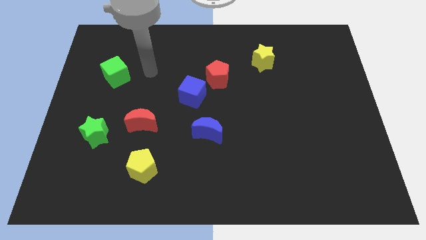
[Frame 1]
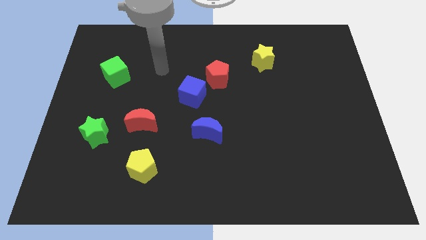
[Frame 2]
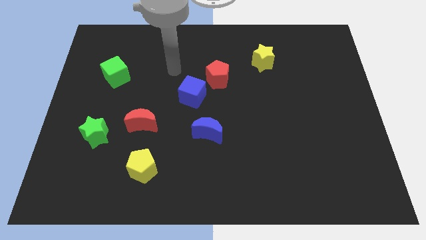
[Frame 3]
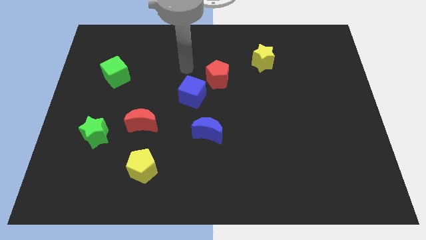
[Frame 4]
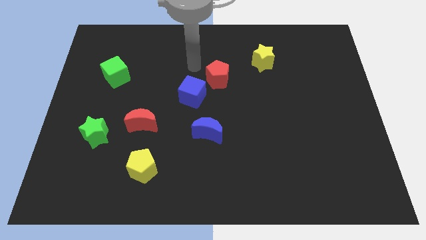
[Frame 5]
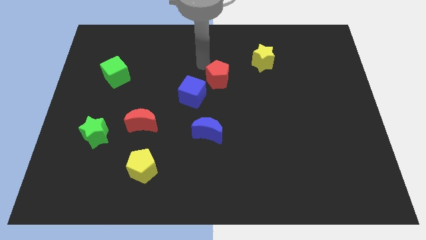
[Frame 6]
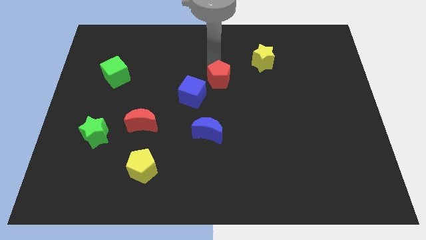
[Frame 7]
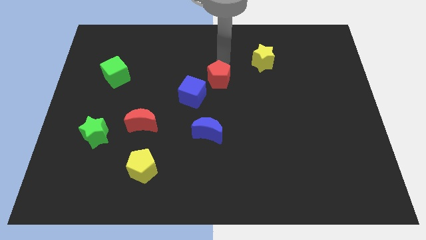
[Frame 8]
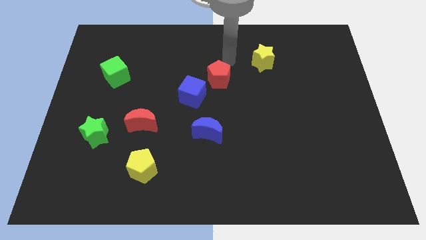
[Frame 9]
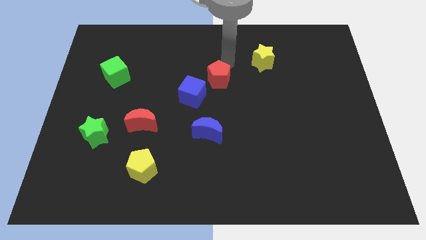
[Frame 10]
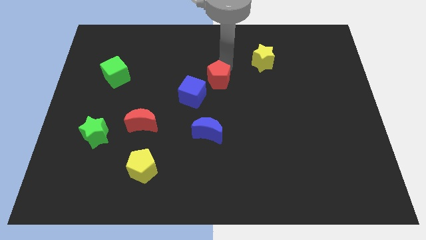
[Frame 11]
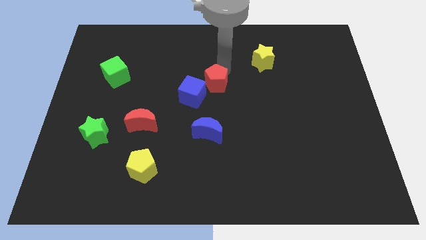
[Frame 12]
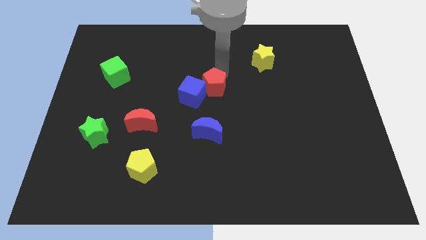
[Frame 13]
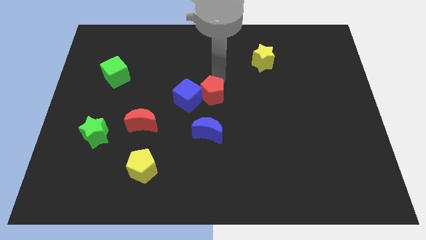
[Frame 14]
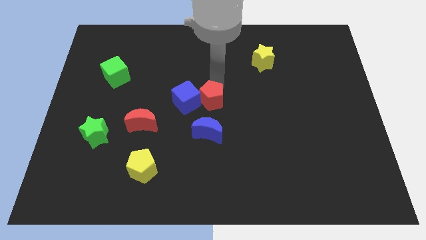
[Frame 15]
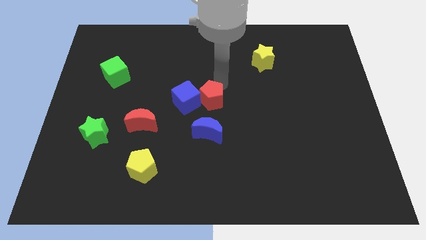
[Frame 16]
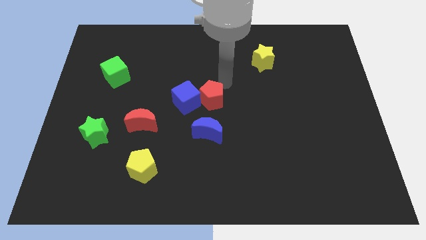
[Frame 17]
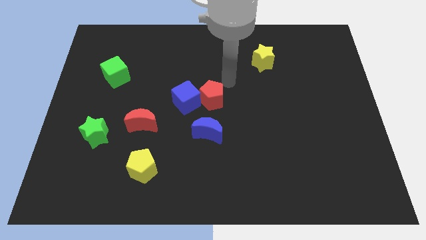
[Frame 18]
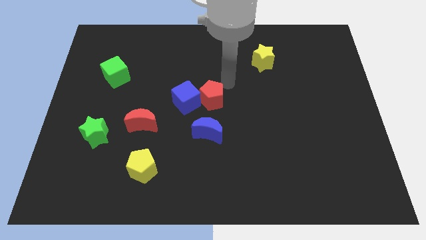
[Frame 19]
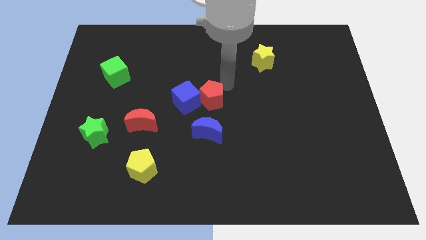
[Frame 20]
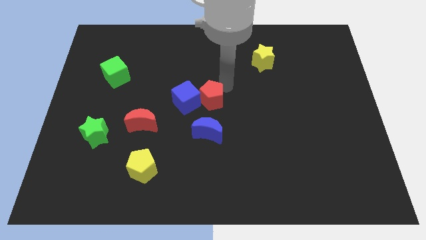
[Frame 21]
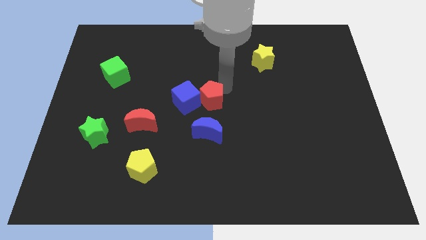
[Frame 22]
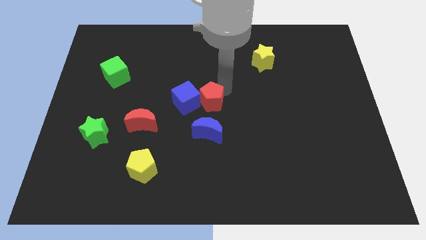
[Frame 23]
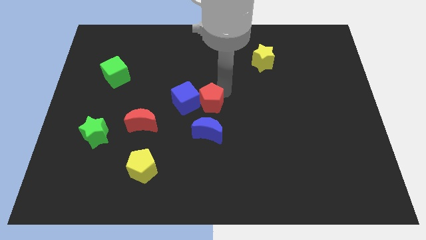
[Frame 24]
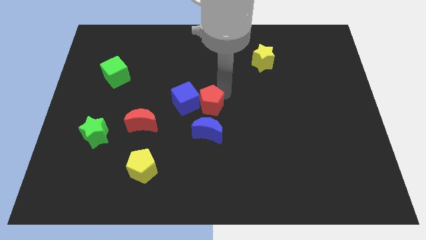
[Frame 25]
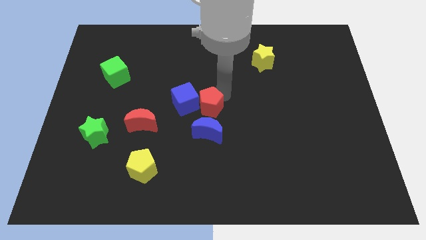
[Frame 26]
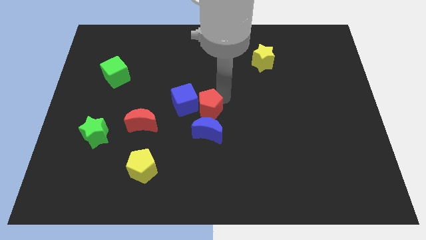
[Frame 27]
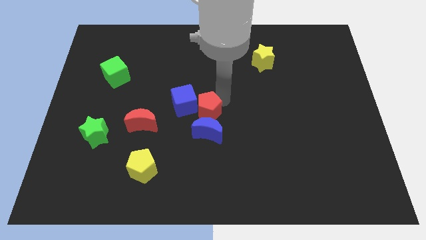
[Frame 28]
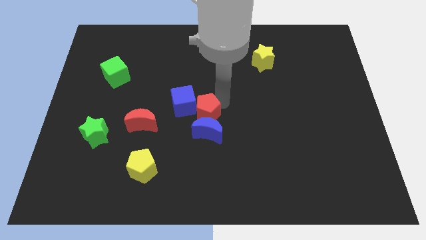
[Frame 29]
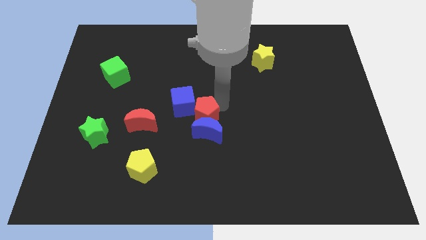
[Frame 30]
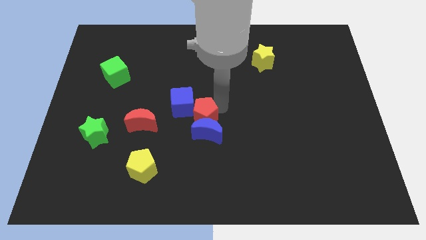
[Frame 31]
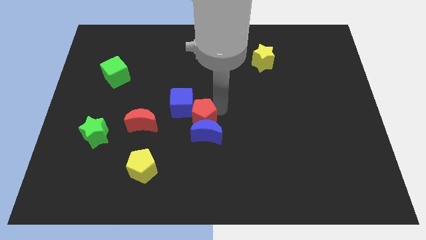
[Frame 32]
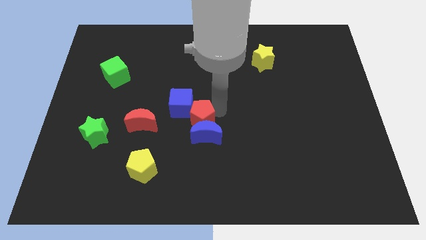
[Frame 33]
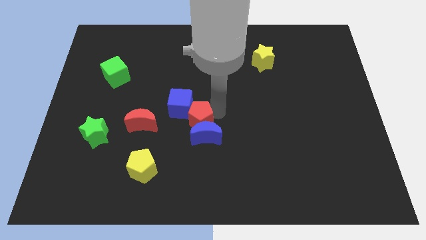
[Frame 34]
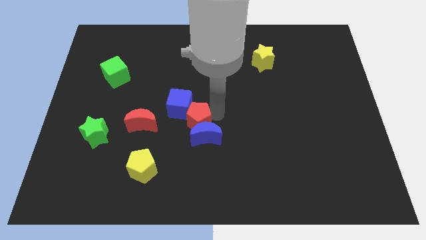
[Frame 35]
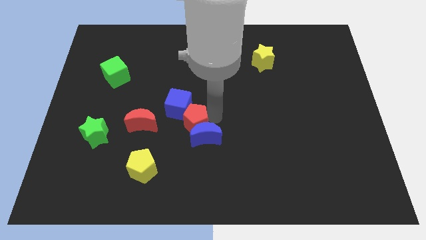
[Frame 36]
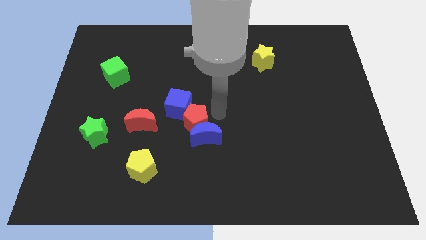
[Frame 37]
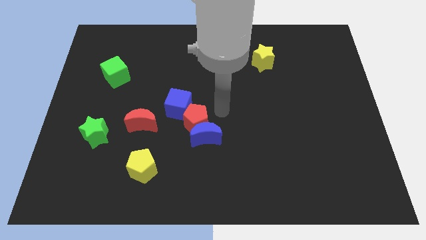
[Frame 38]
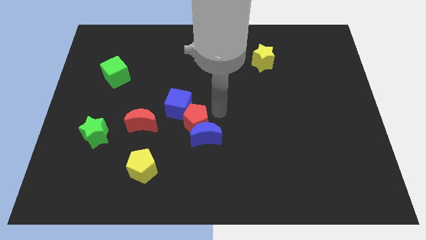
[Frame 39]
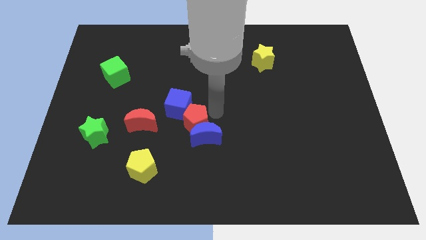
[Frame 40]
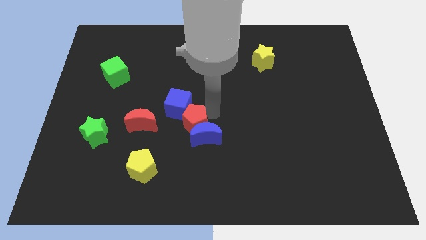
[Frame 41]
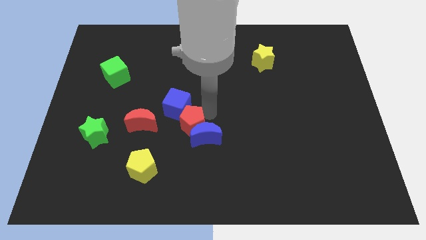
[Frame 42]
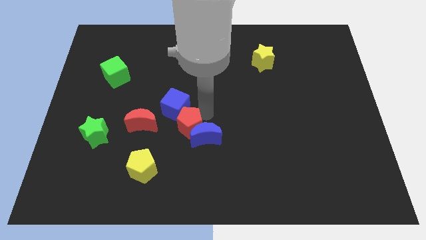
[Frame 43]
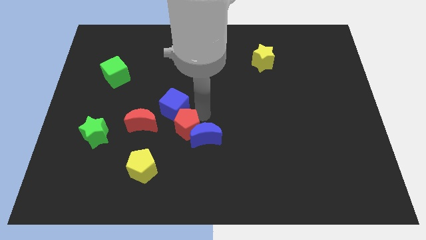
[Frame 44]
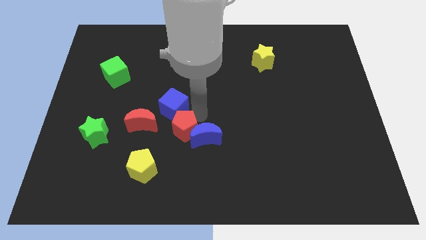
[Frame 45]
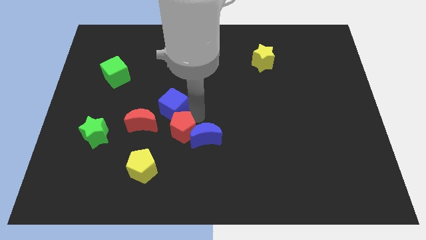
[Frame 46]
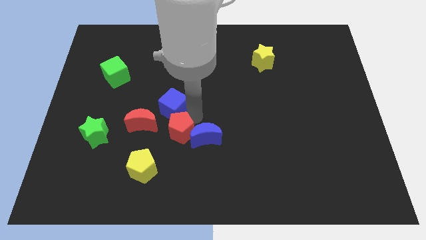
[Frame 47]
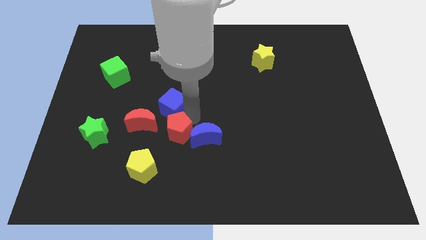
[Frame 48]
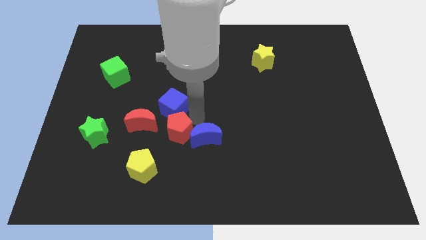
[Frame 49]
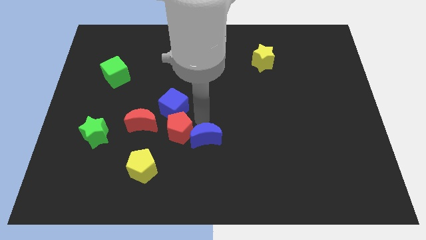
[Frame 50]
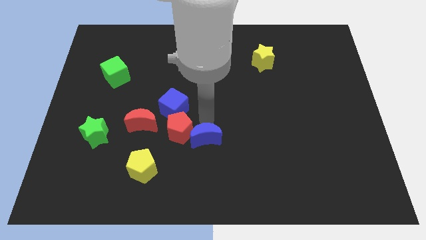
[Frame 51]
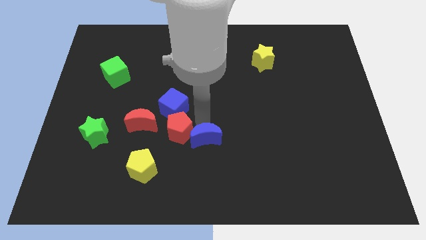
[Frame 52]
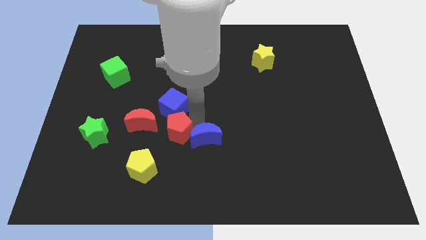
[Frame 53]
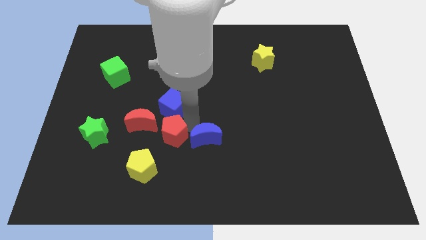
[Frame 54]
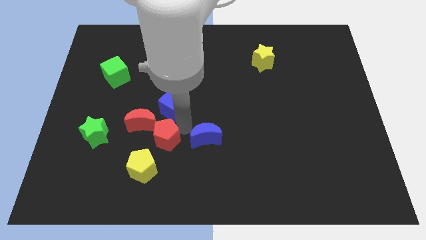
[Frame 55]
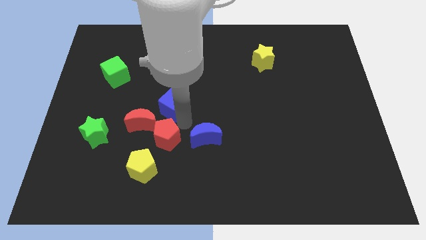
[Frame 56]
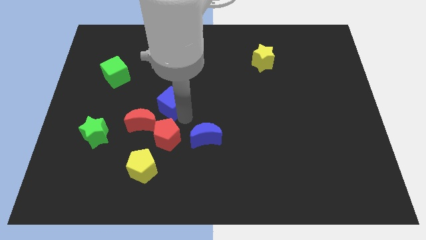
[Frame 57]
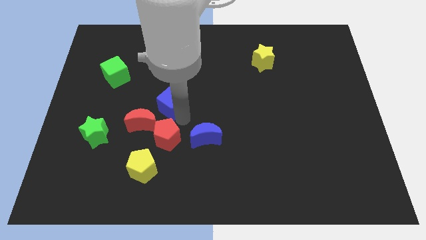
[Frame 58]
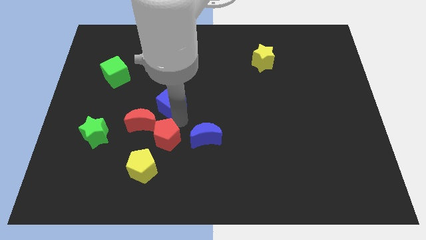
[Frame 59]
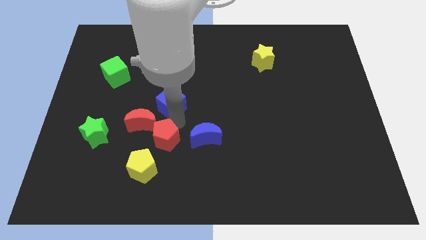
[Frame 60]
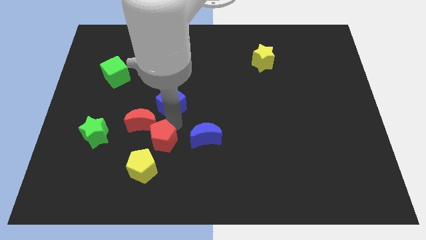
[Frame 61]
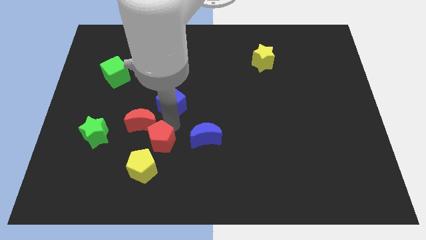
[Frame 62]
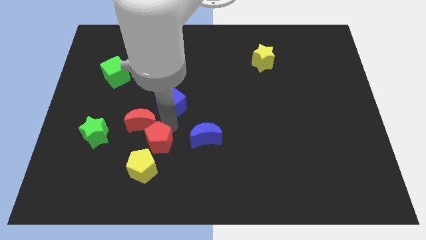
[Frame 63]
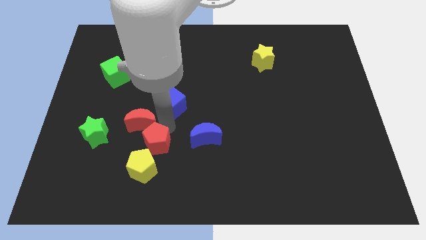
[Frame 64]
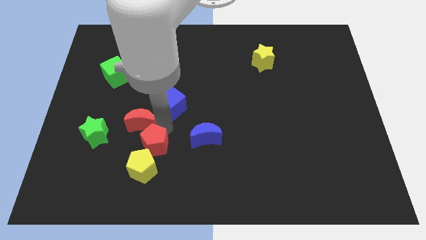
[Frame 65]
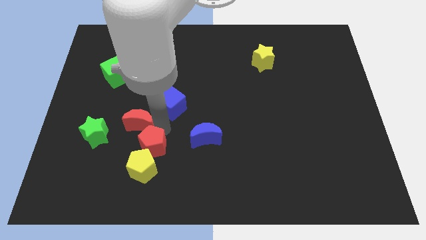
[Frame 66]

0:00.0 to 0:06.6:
move the red pentagon to the yellow pentagon

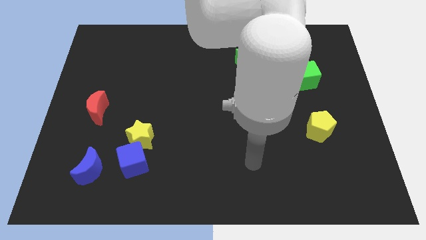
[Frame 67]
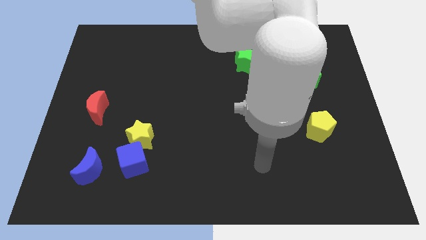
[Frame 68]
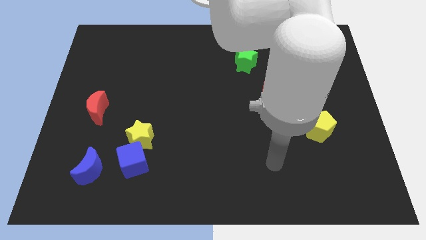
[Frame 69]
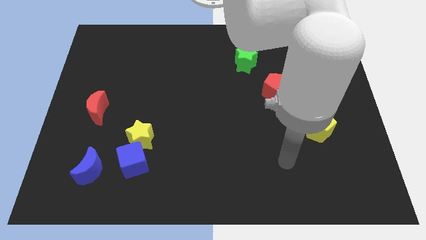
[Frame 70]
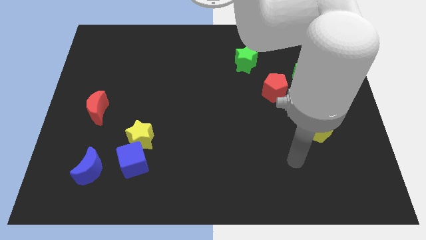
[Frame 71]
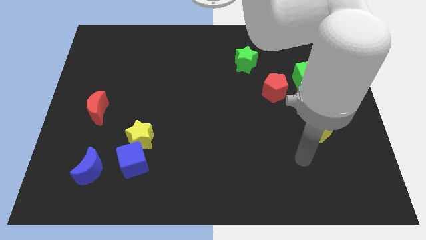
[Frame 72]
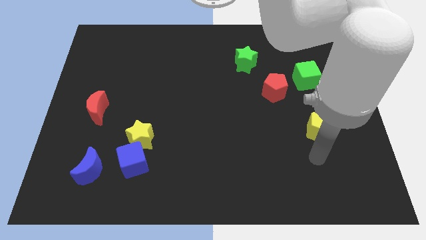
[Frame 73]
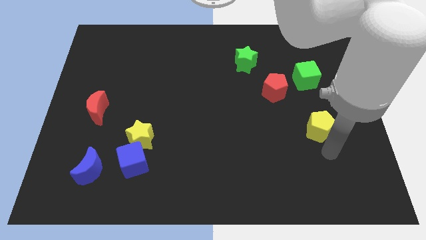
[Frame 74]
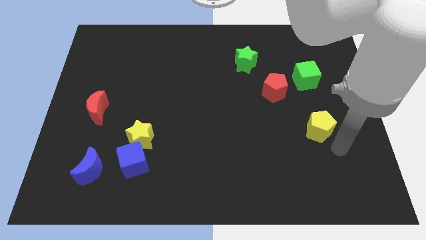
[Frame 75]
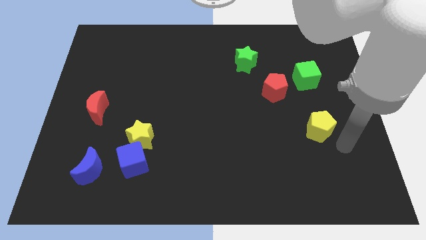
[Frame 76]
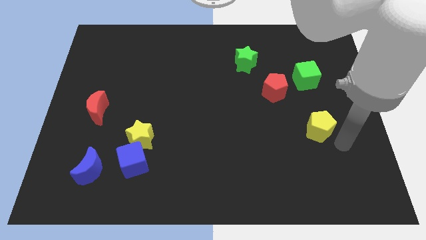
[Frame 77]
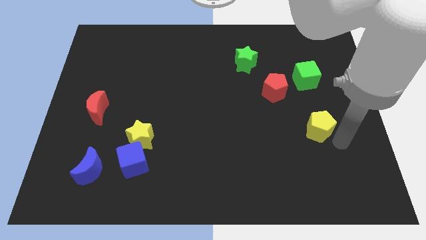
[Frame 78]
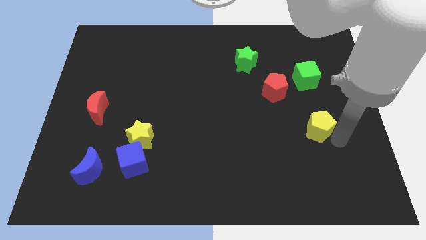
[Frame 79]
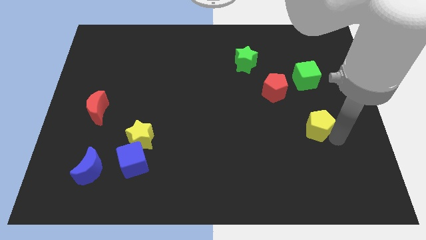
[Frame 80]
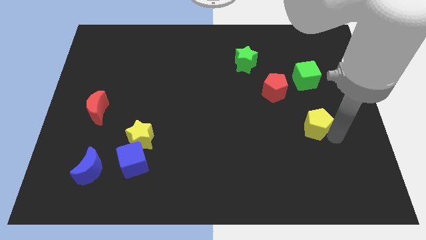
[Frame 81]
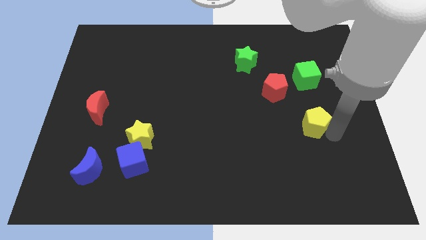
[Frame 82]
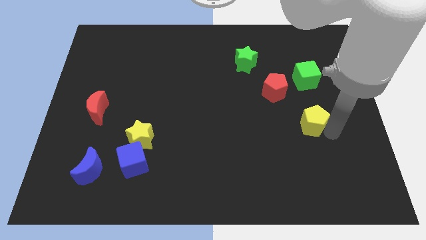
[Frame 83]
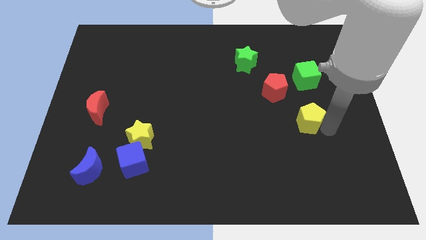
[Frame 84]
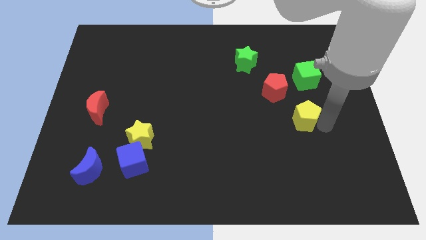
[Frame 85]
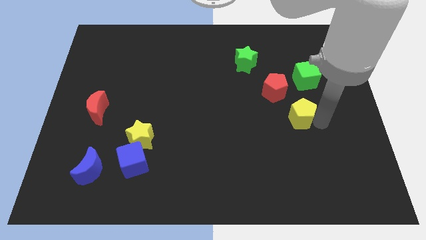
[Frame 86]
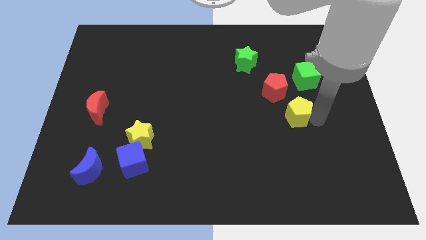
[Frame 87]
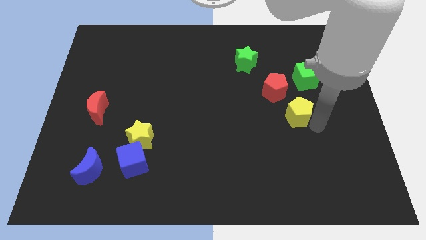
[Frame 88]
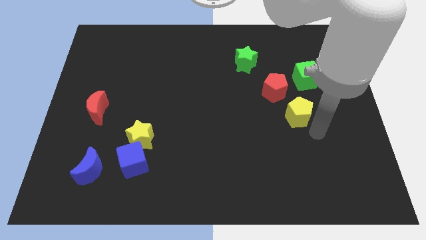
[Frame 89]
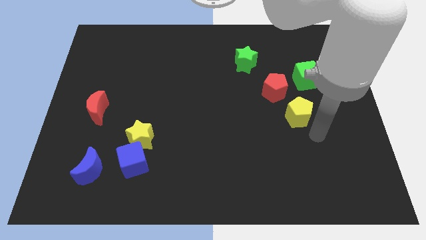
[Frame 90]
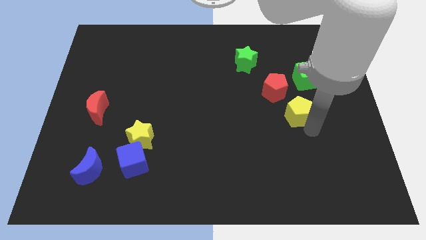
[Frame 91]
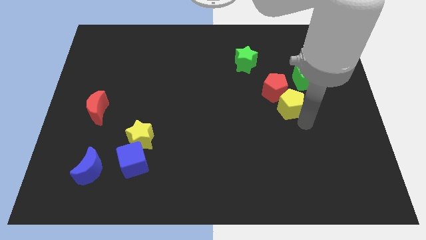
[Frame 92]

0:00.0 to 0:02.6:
push the yellow pentagon to the red pentagon
